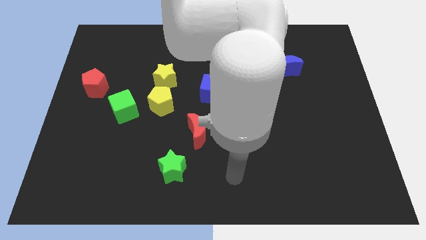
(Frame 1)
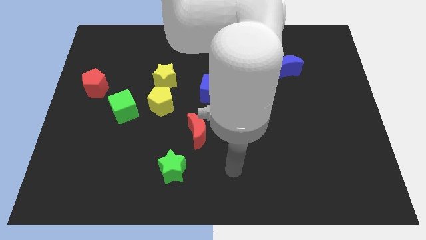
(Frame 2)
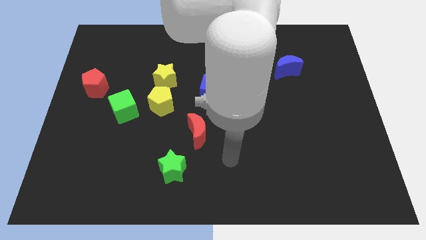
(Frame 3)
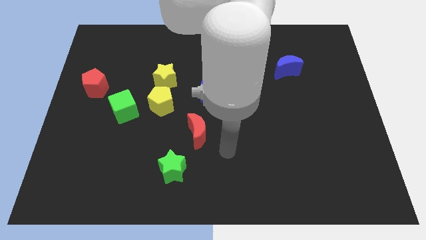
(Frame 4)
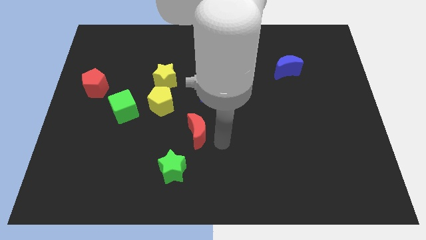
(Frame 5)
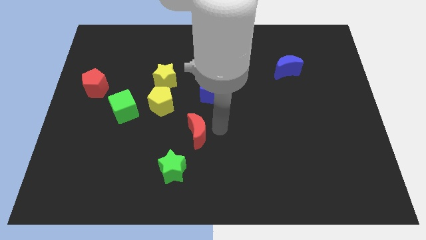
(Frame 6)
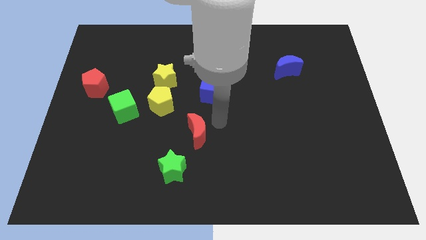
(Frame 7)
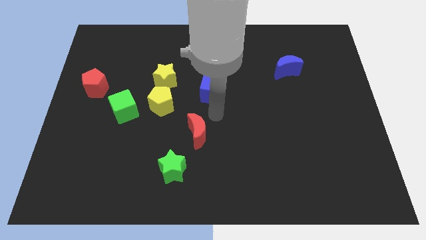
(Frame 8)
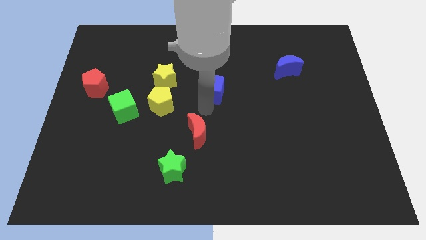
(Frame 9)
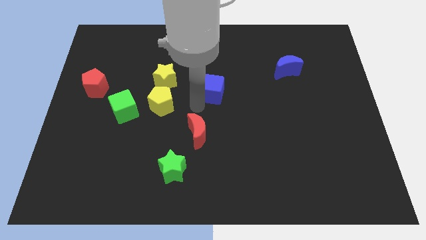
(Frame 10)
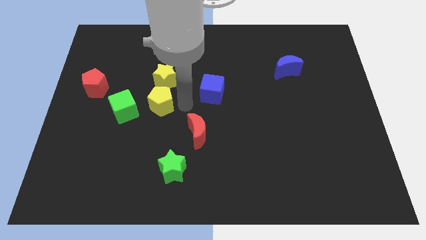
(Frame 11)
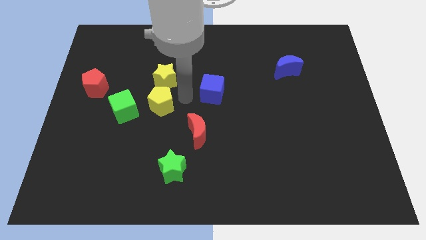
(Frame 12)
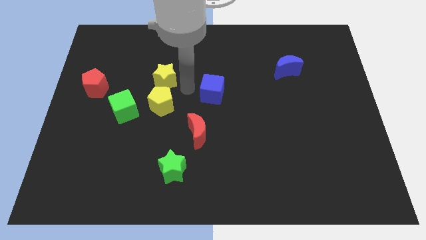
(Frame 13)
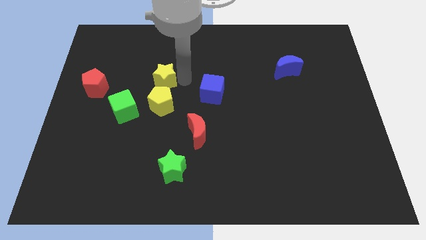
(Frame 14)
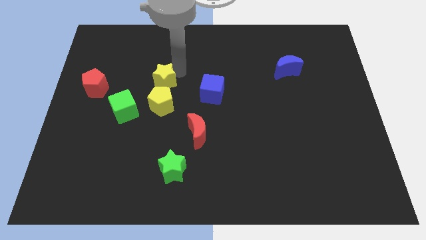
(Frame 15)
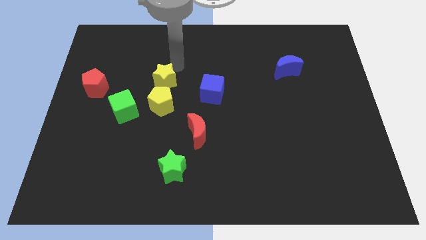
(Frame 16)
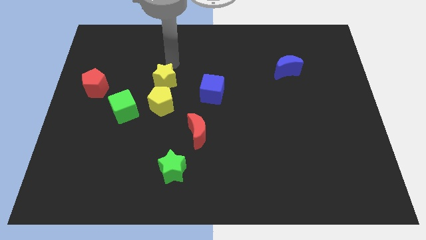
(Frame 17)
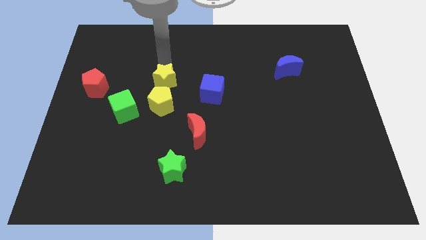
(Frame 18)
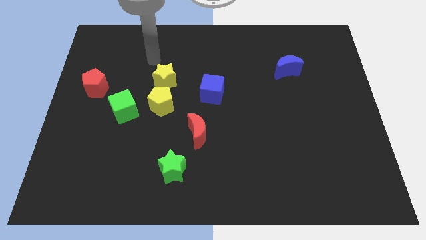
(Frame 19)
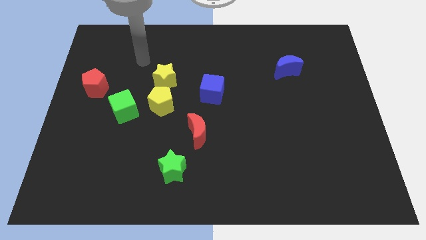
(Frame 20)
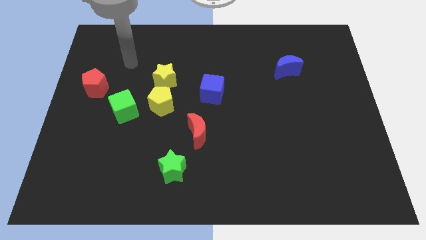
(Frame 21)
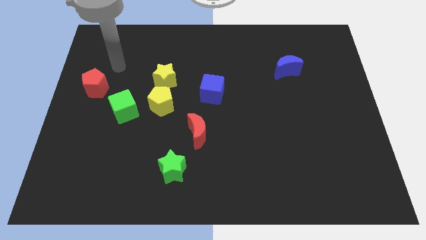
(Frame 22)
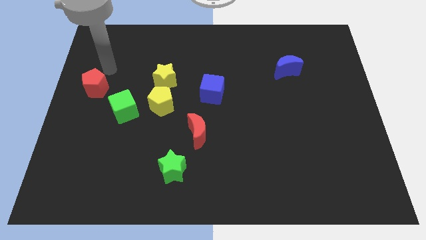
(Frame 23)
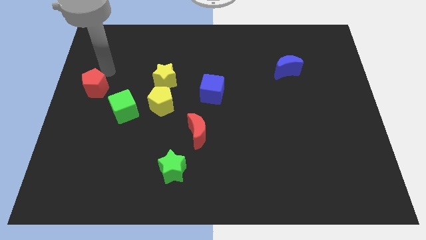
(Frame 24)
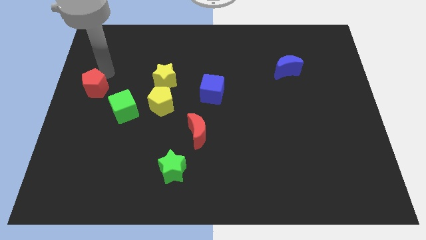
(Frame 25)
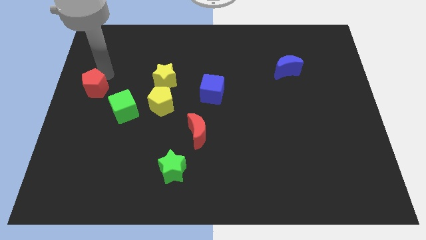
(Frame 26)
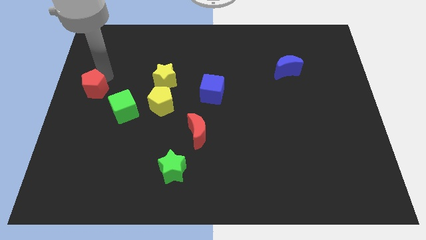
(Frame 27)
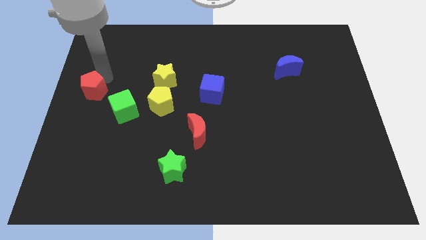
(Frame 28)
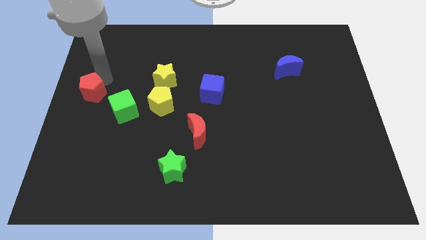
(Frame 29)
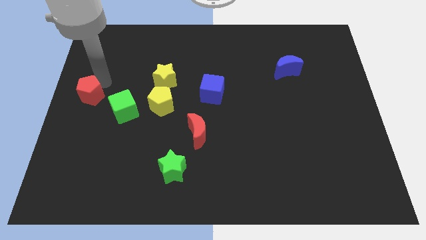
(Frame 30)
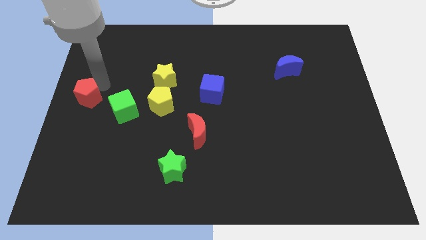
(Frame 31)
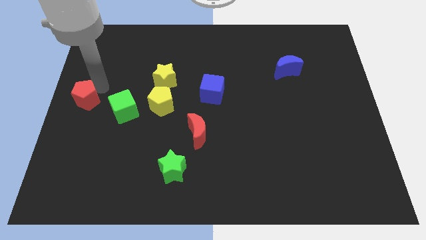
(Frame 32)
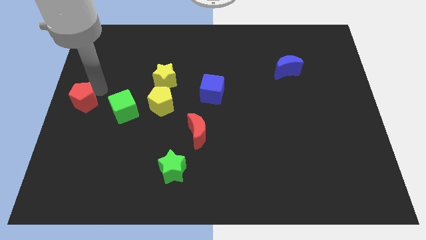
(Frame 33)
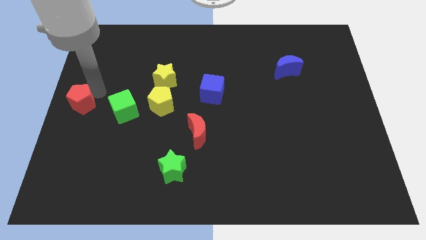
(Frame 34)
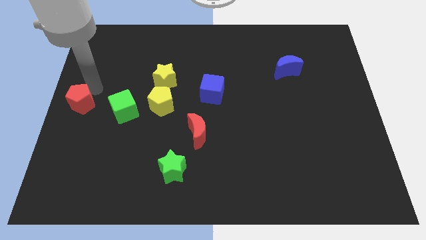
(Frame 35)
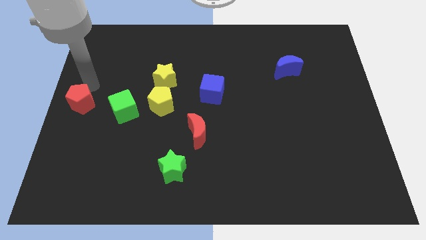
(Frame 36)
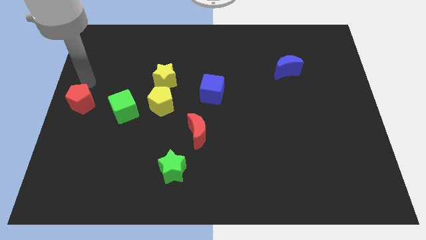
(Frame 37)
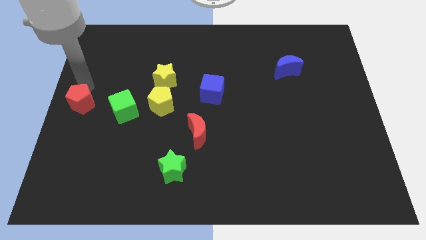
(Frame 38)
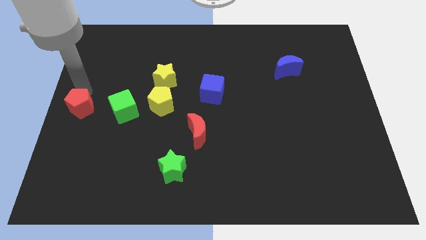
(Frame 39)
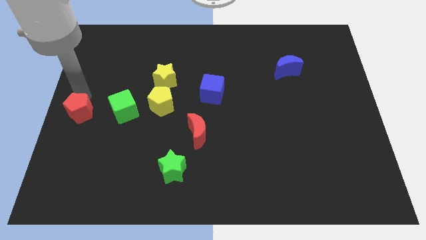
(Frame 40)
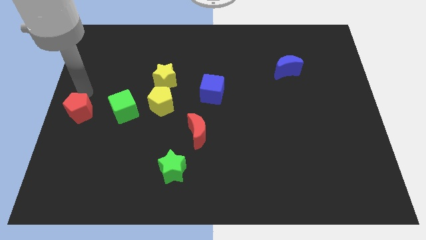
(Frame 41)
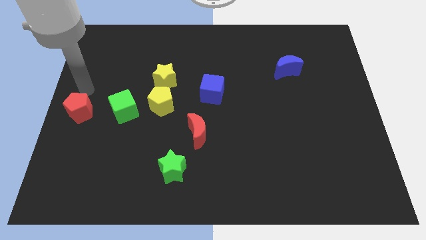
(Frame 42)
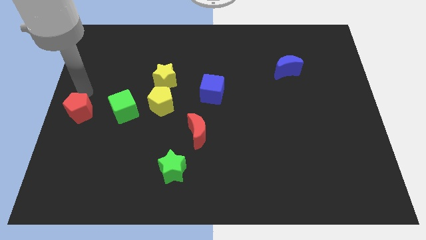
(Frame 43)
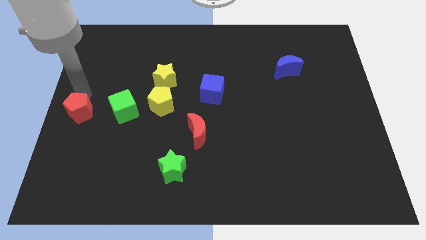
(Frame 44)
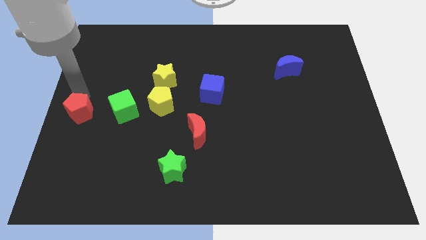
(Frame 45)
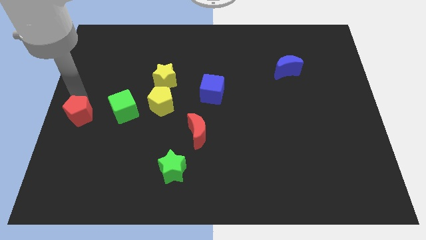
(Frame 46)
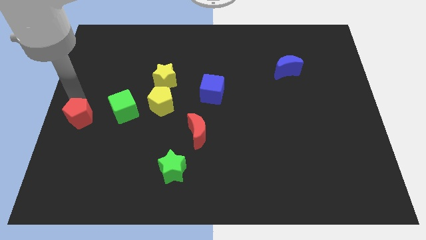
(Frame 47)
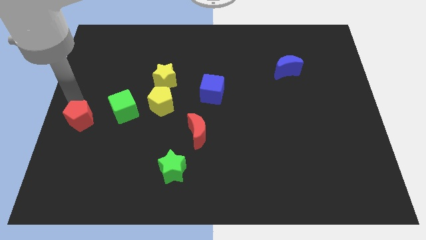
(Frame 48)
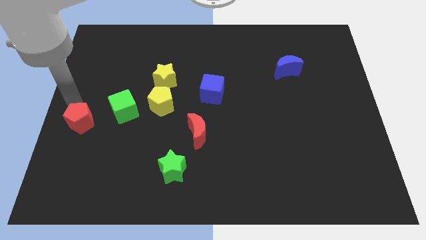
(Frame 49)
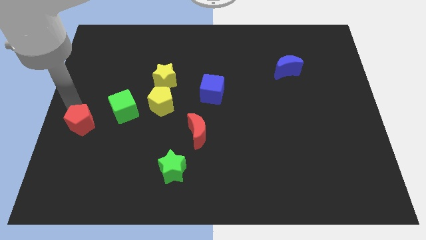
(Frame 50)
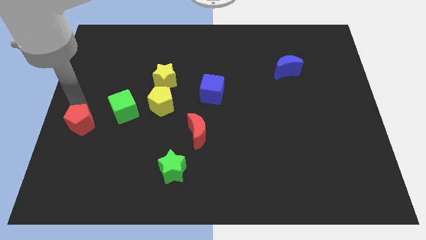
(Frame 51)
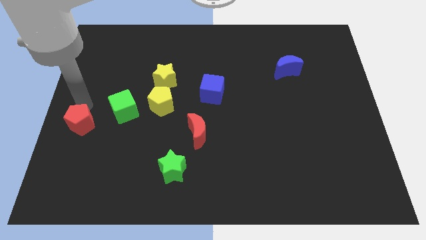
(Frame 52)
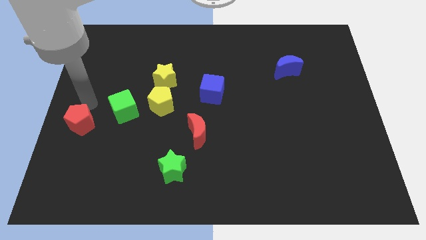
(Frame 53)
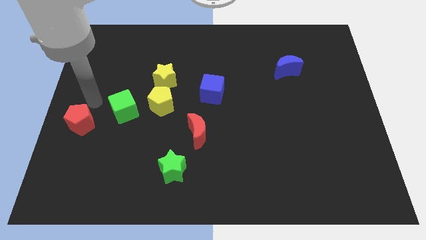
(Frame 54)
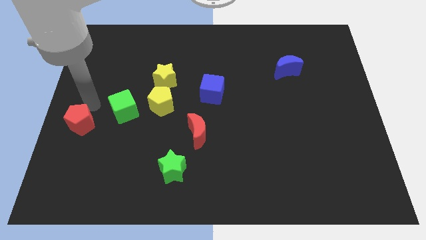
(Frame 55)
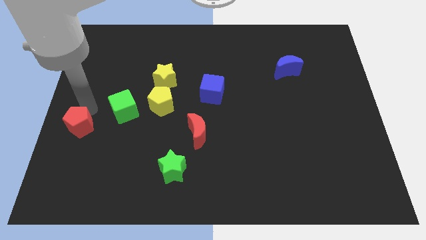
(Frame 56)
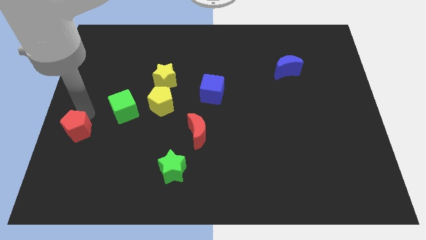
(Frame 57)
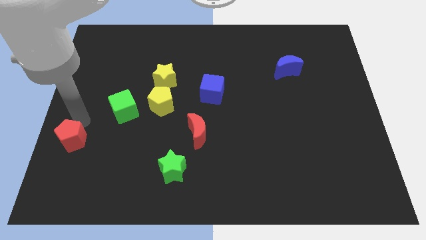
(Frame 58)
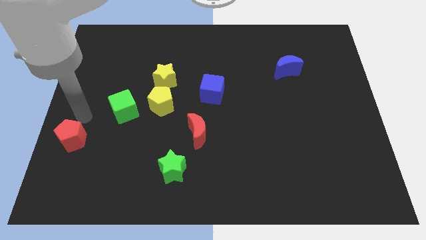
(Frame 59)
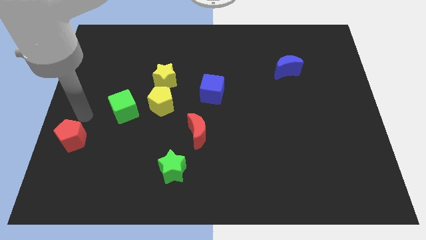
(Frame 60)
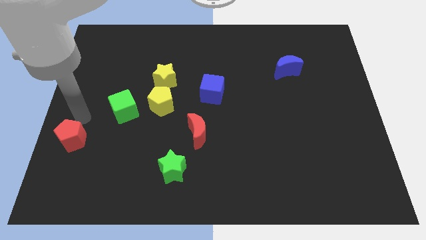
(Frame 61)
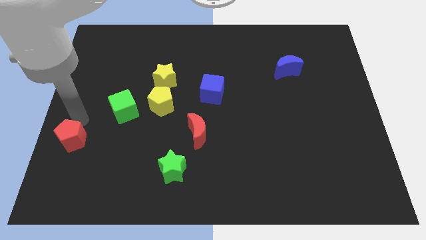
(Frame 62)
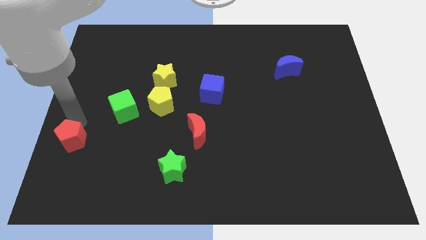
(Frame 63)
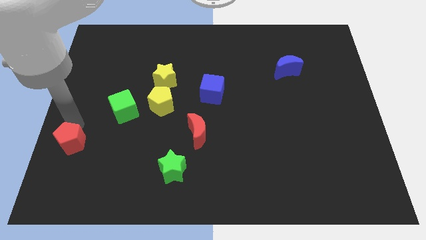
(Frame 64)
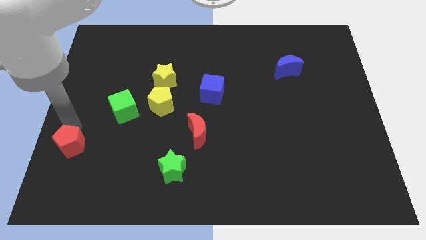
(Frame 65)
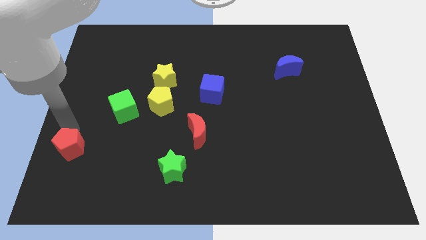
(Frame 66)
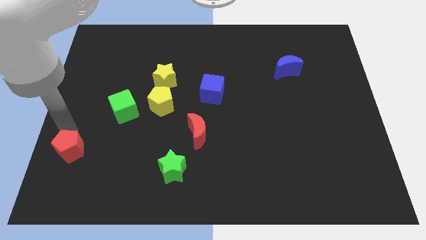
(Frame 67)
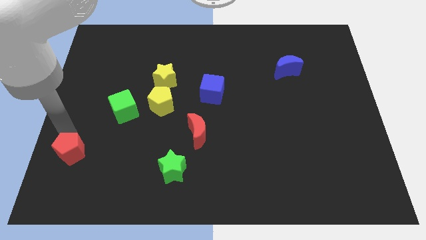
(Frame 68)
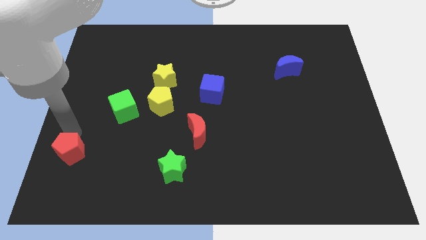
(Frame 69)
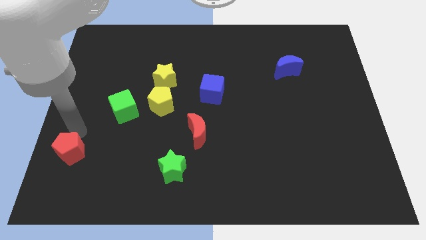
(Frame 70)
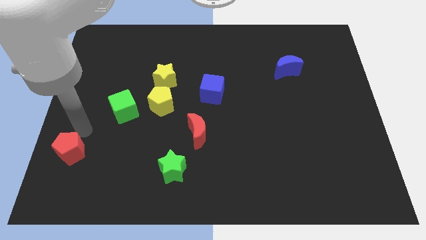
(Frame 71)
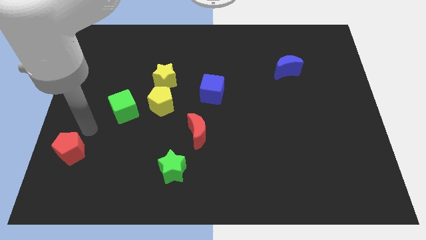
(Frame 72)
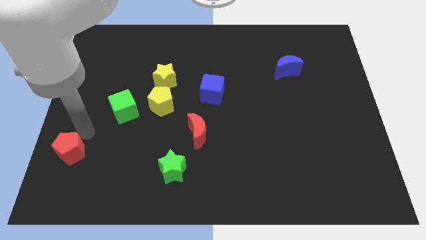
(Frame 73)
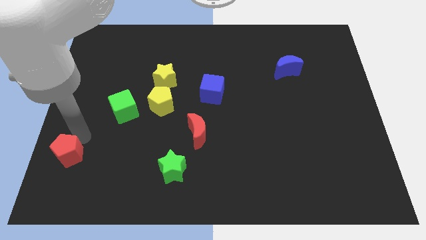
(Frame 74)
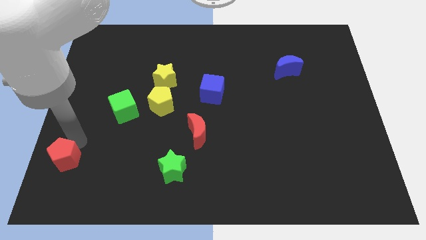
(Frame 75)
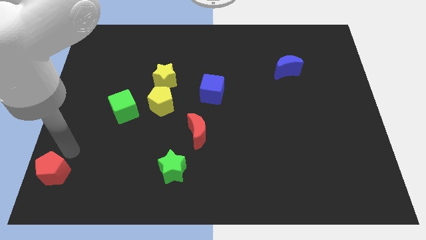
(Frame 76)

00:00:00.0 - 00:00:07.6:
put the red pentagon to the lower left corner
